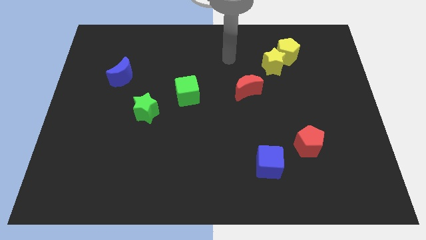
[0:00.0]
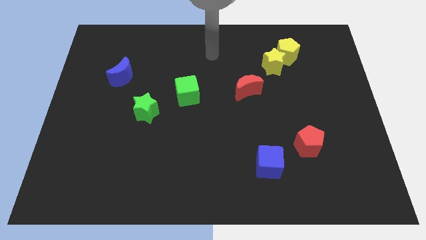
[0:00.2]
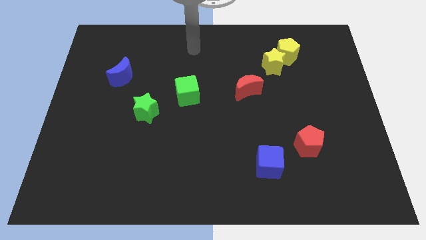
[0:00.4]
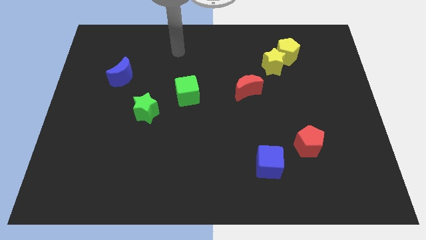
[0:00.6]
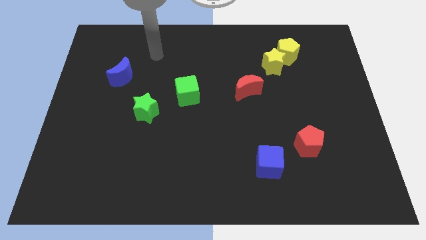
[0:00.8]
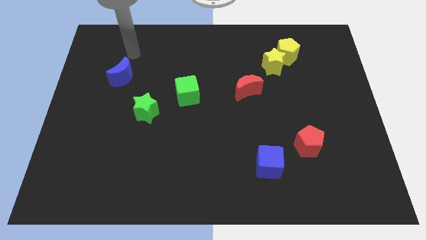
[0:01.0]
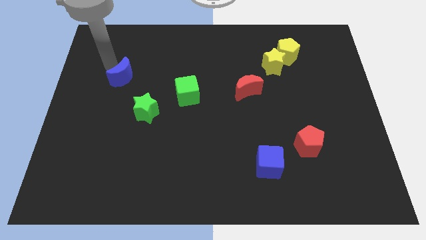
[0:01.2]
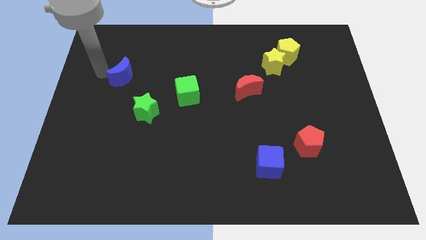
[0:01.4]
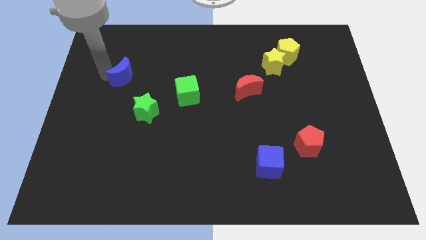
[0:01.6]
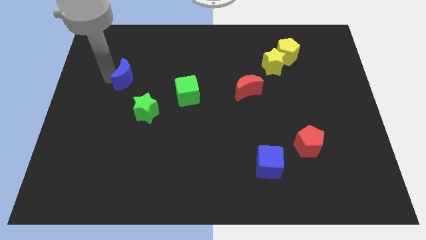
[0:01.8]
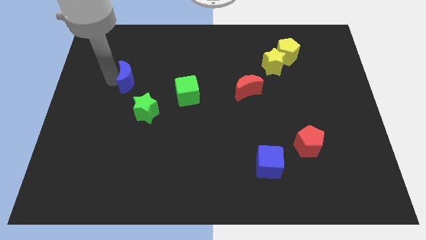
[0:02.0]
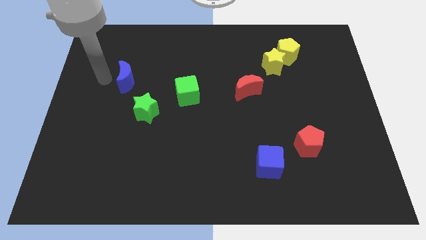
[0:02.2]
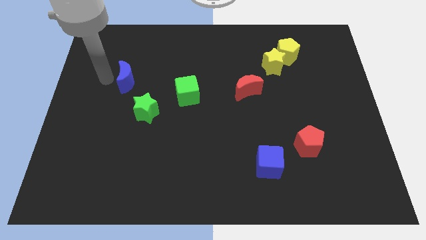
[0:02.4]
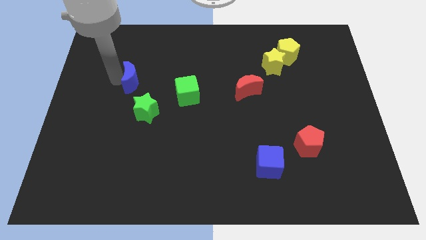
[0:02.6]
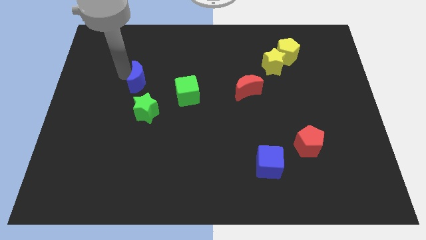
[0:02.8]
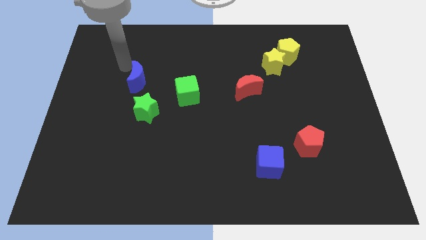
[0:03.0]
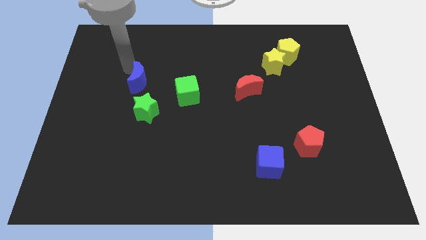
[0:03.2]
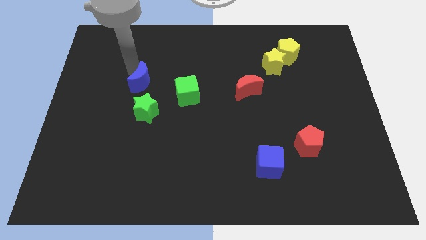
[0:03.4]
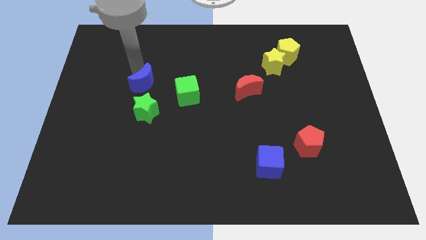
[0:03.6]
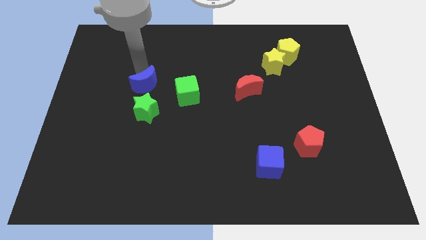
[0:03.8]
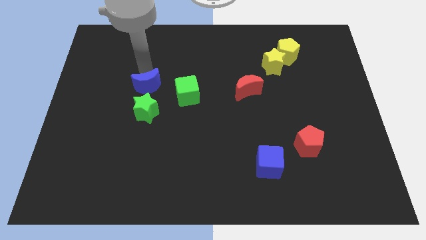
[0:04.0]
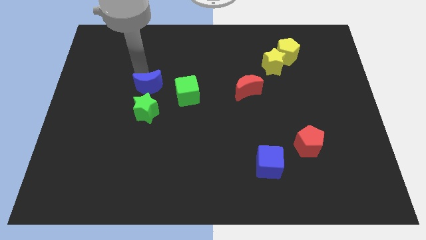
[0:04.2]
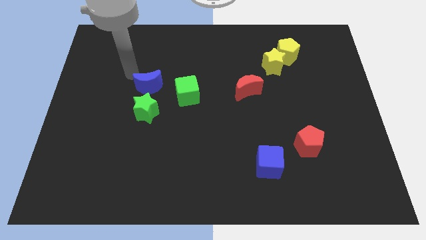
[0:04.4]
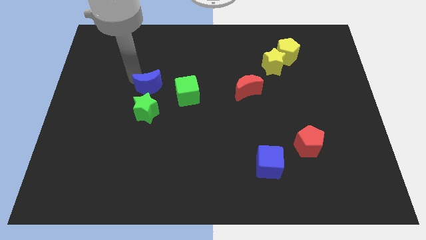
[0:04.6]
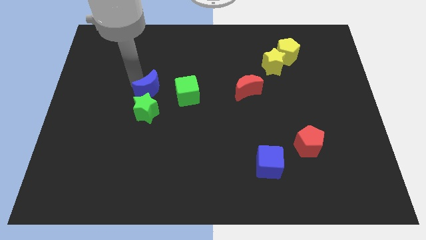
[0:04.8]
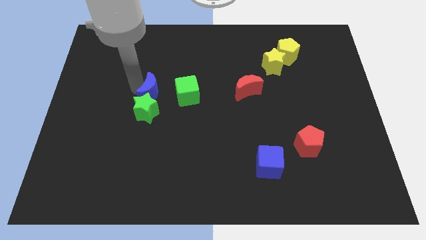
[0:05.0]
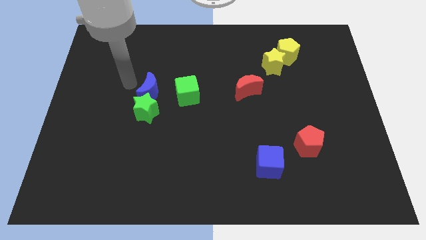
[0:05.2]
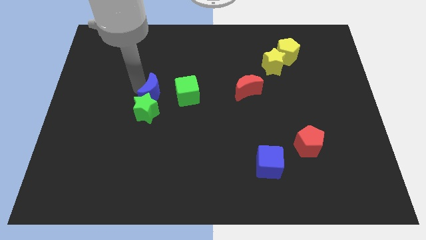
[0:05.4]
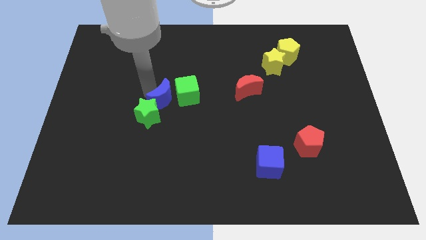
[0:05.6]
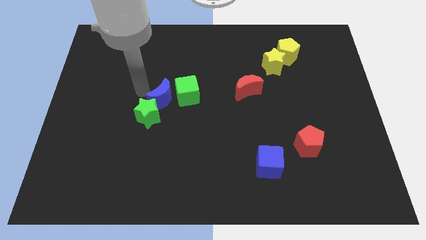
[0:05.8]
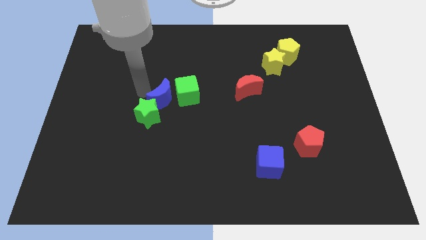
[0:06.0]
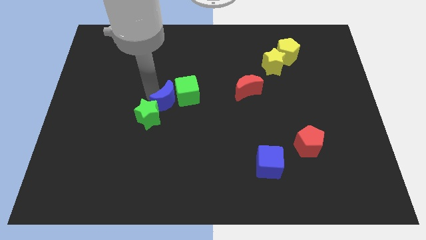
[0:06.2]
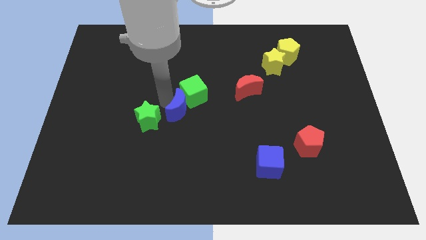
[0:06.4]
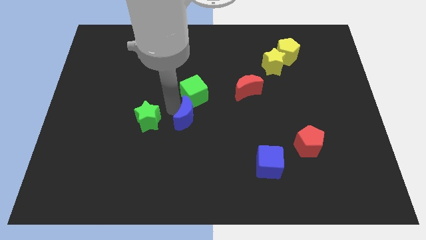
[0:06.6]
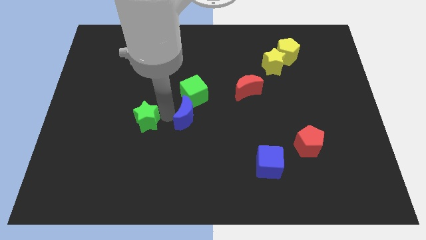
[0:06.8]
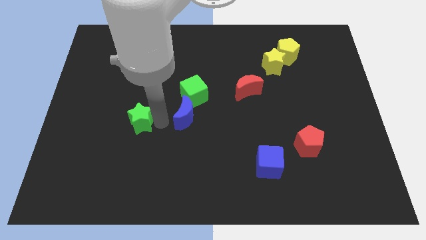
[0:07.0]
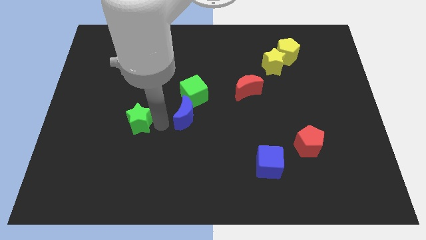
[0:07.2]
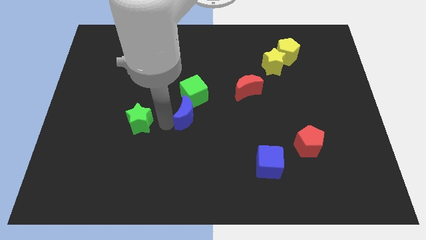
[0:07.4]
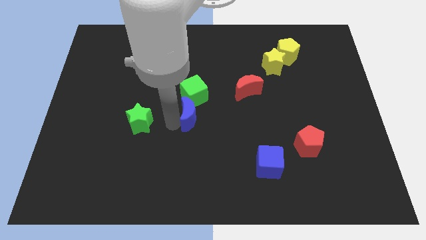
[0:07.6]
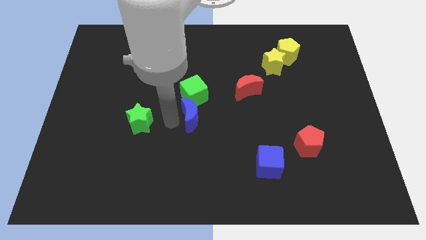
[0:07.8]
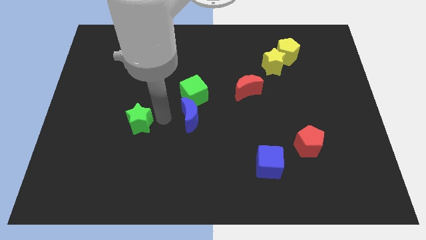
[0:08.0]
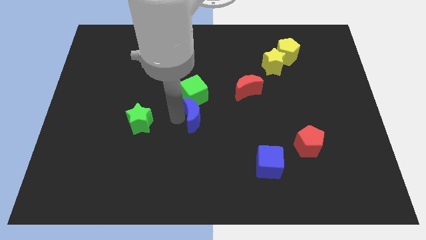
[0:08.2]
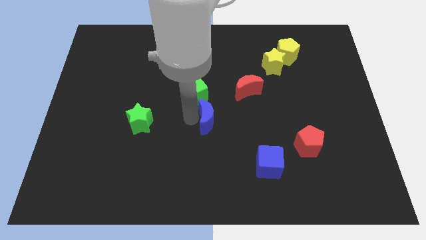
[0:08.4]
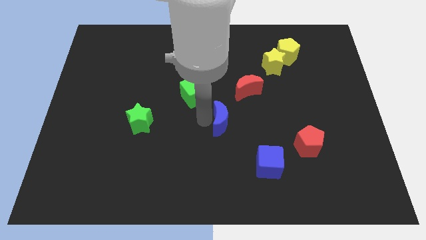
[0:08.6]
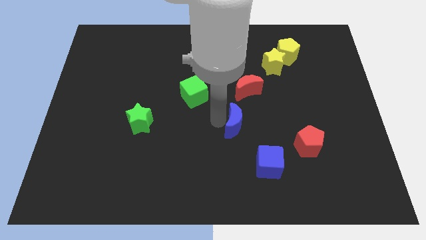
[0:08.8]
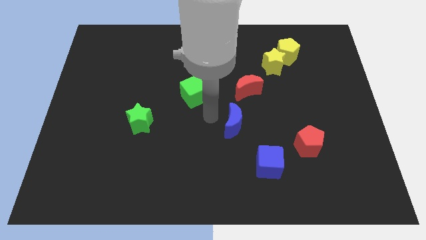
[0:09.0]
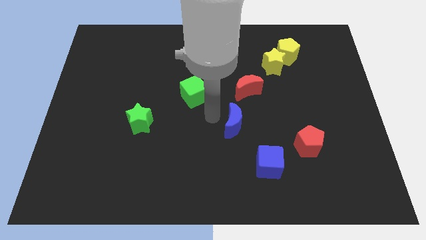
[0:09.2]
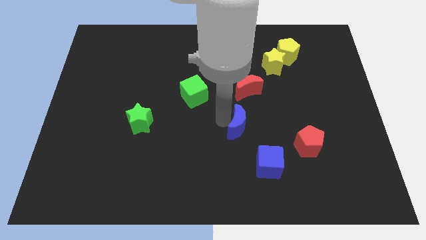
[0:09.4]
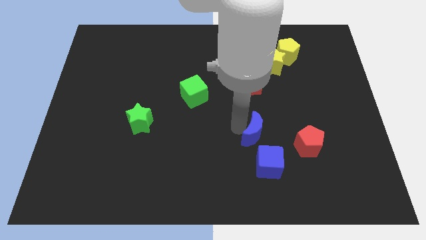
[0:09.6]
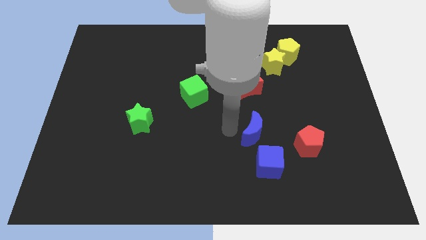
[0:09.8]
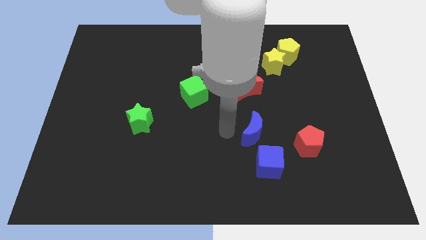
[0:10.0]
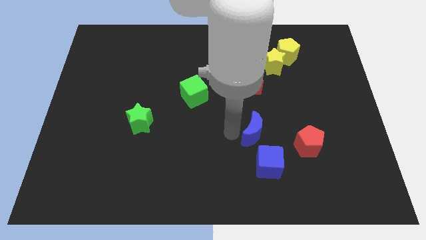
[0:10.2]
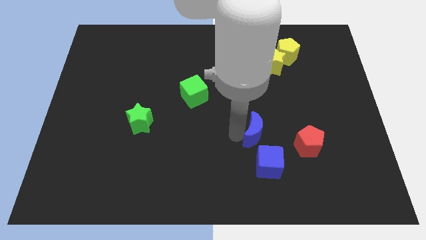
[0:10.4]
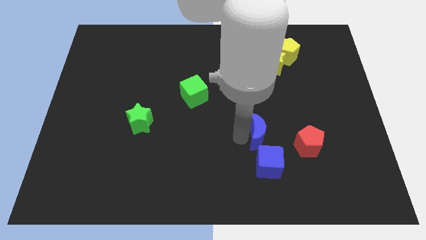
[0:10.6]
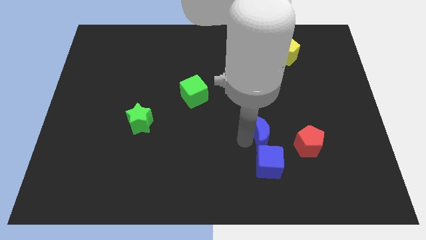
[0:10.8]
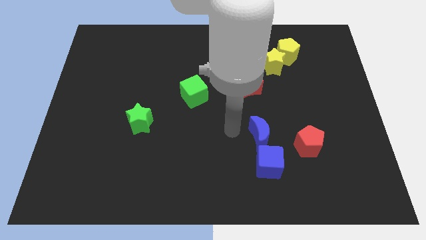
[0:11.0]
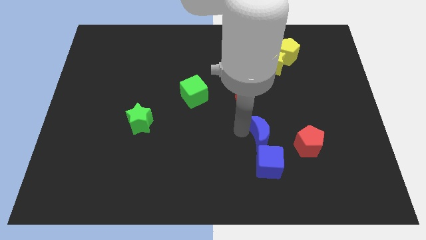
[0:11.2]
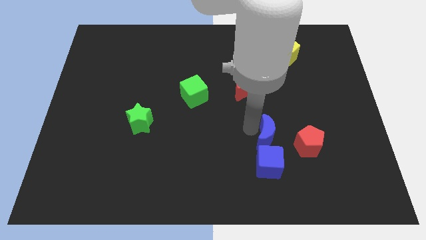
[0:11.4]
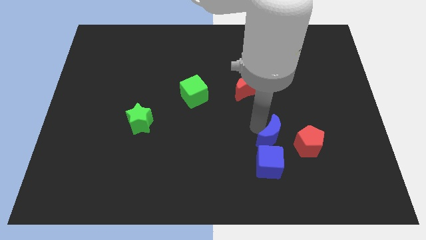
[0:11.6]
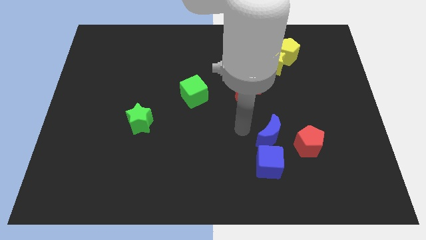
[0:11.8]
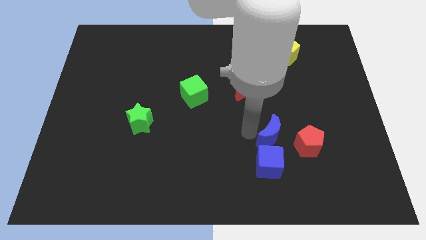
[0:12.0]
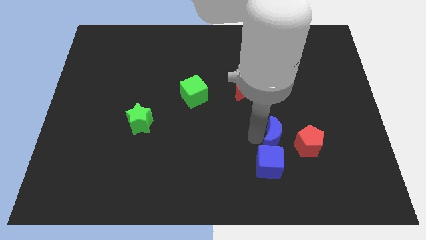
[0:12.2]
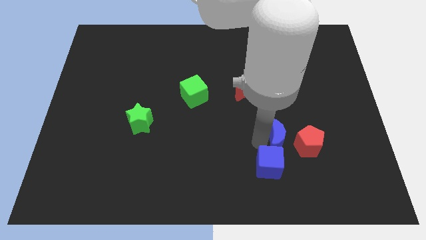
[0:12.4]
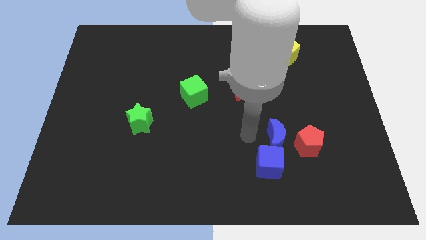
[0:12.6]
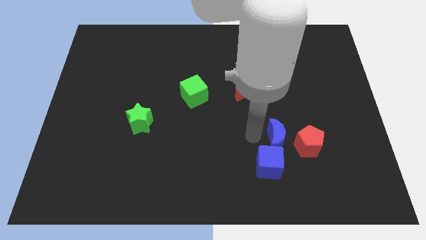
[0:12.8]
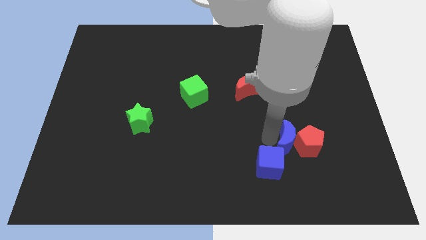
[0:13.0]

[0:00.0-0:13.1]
push the blue moon to the red pentagon
